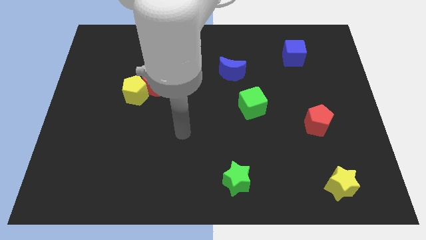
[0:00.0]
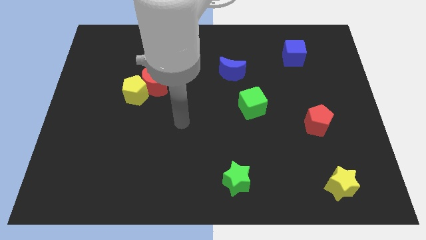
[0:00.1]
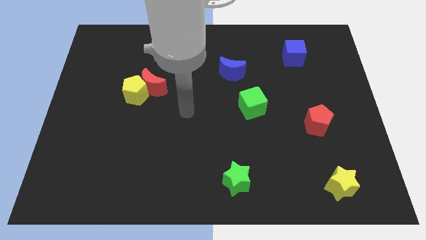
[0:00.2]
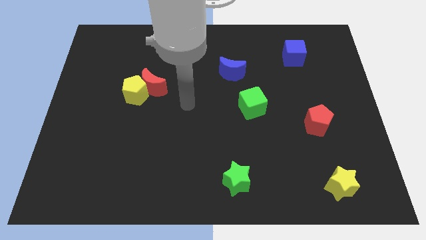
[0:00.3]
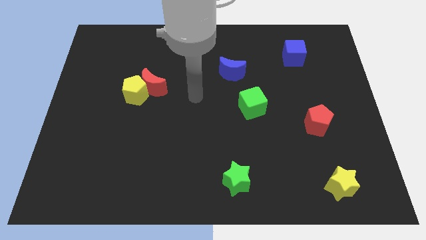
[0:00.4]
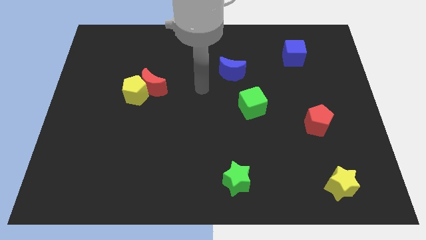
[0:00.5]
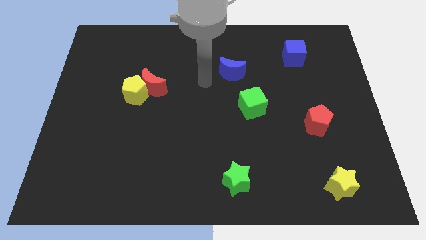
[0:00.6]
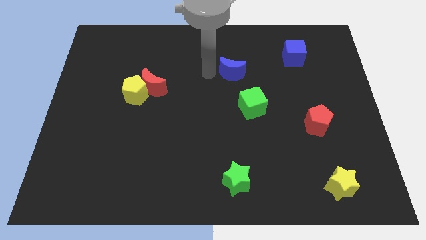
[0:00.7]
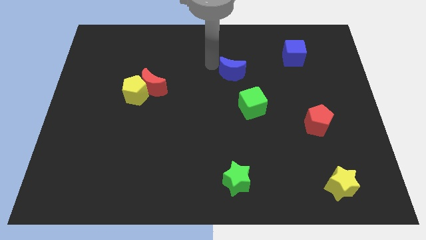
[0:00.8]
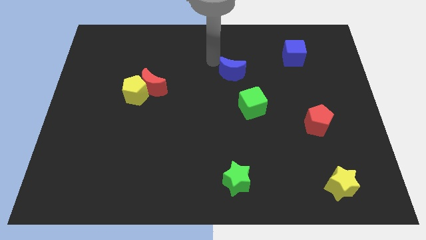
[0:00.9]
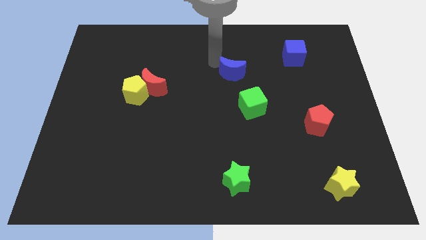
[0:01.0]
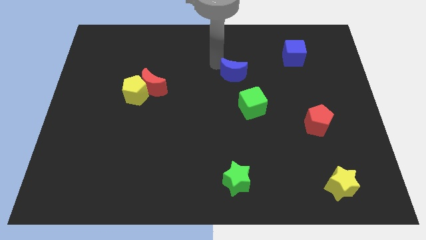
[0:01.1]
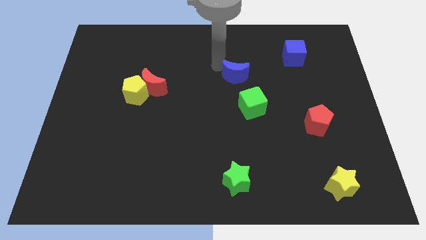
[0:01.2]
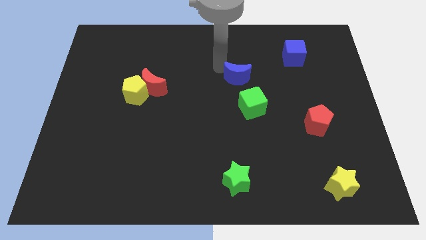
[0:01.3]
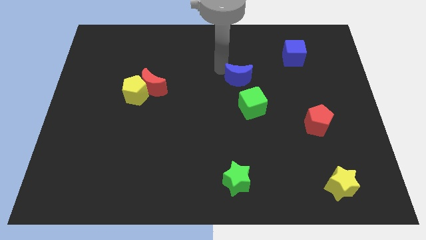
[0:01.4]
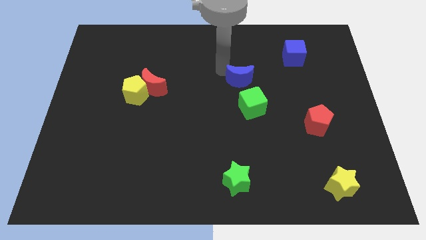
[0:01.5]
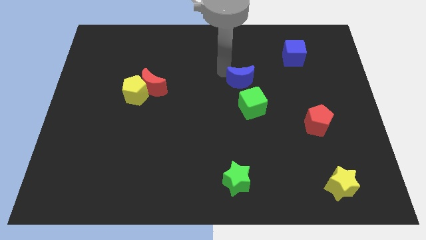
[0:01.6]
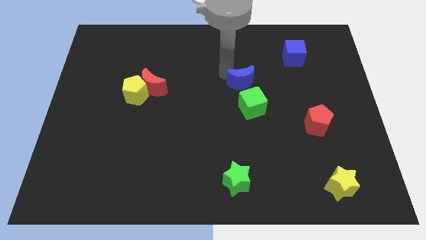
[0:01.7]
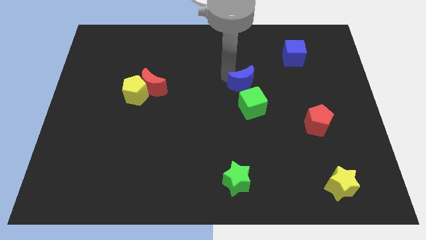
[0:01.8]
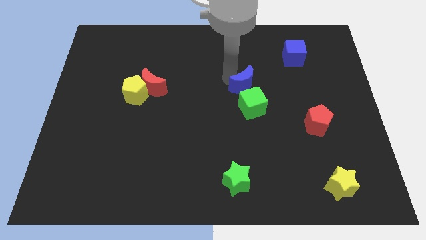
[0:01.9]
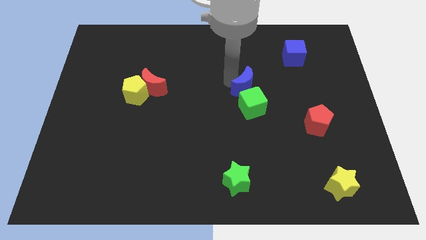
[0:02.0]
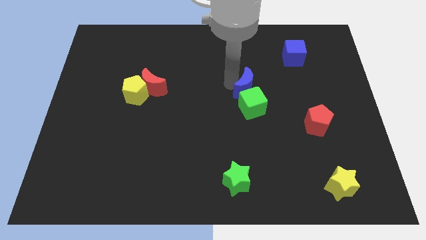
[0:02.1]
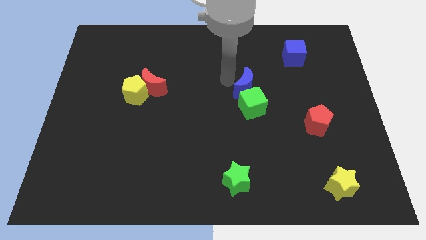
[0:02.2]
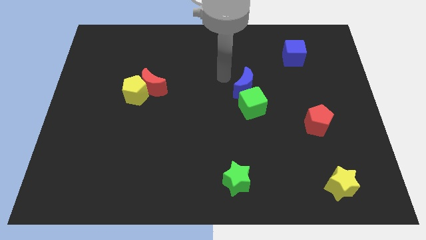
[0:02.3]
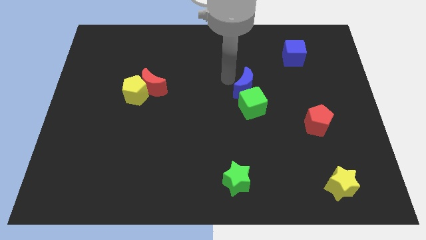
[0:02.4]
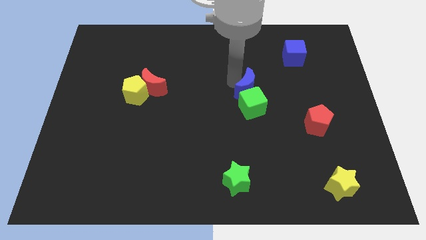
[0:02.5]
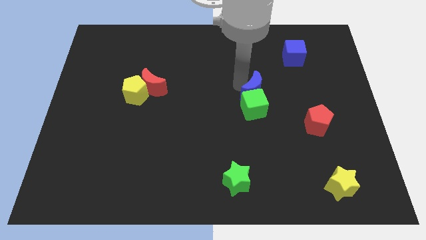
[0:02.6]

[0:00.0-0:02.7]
move the blue moon a bit down and to the right diagonally

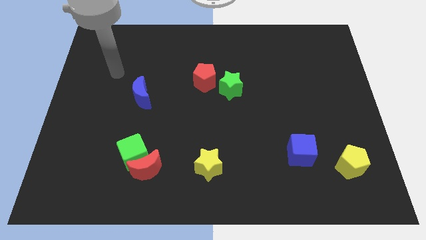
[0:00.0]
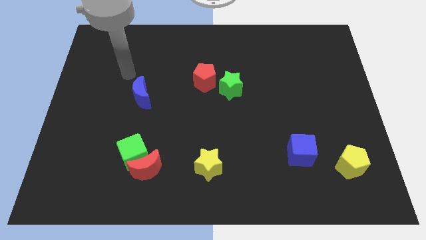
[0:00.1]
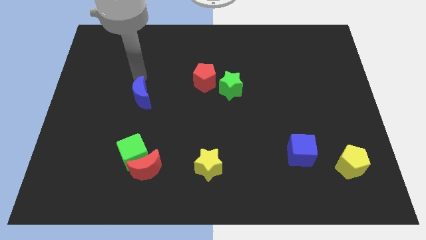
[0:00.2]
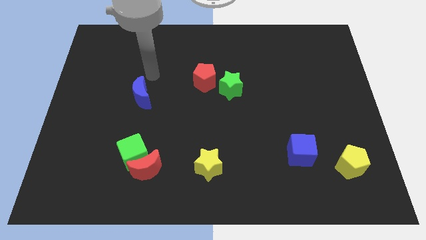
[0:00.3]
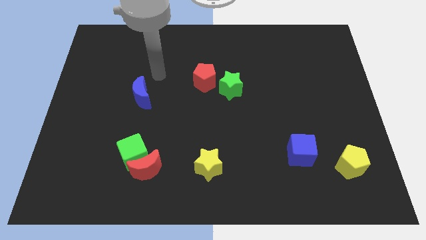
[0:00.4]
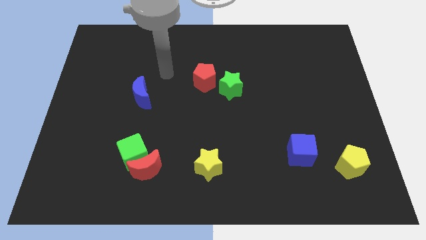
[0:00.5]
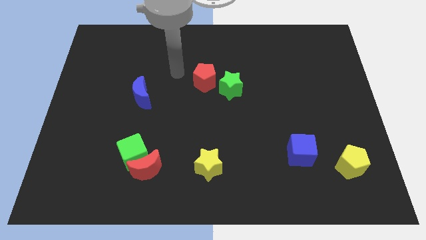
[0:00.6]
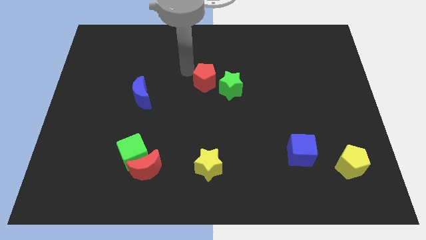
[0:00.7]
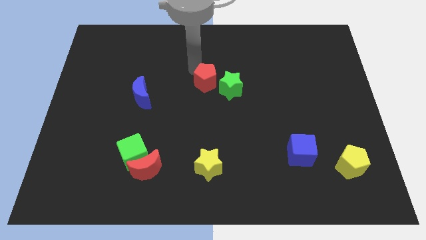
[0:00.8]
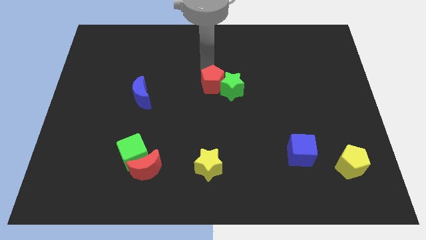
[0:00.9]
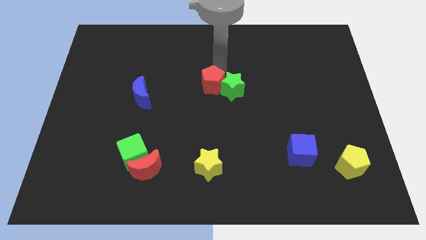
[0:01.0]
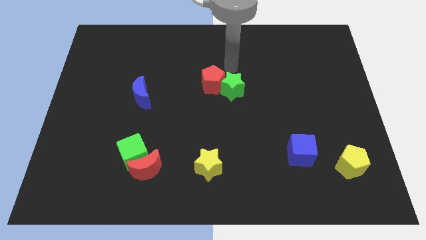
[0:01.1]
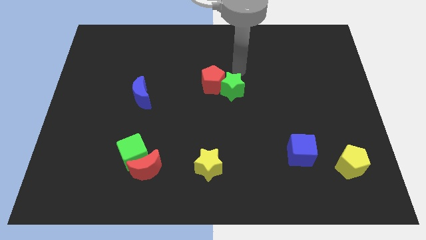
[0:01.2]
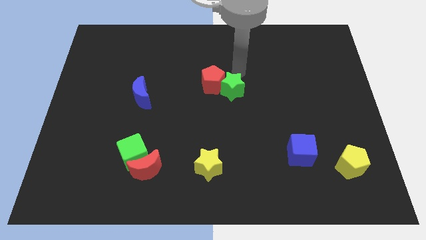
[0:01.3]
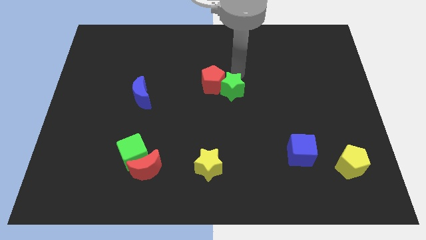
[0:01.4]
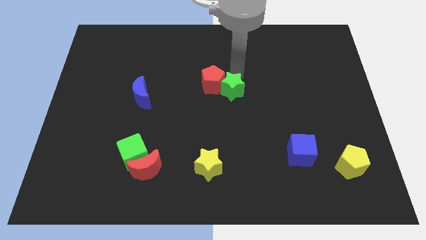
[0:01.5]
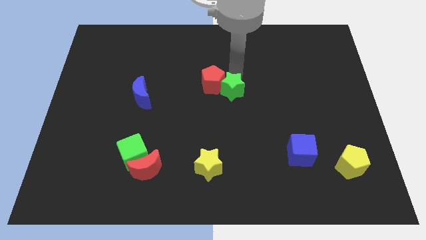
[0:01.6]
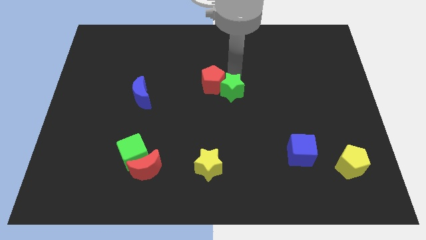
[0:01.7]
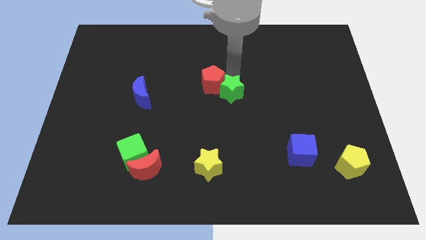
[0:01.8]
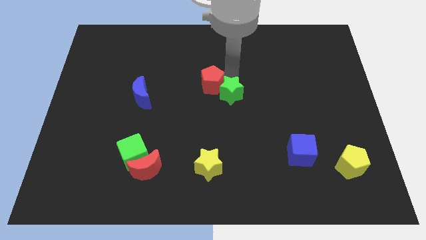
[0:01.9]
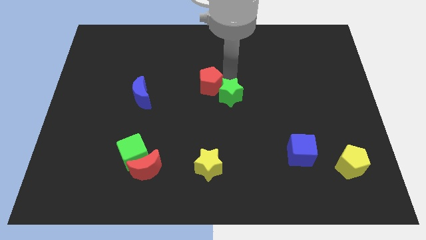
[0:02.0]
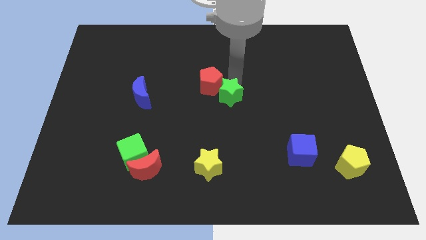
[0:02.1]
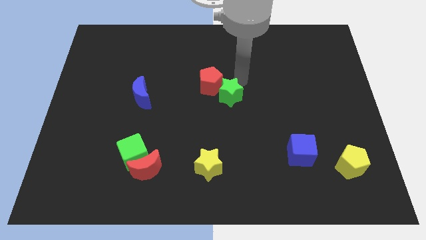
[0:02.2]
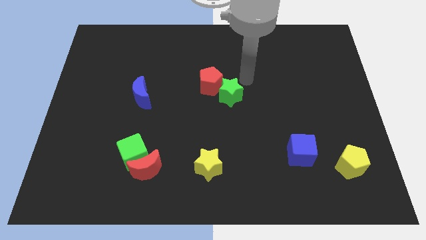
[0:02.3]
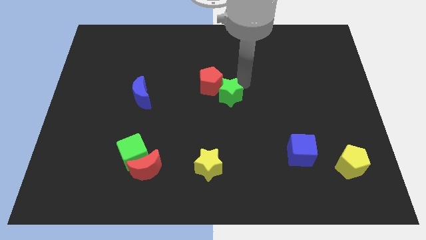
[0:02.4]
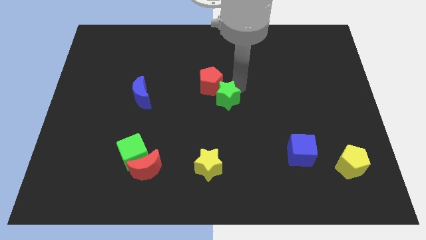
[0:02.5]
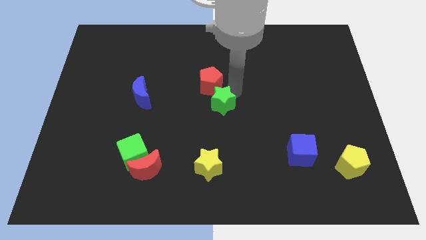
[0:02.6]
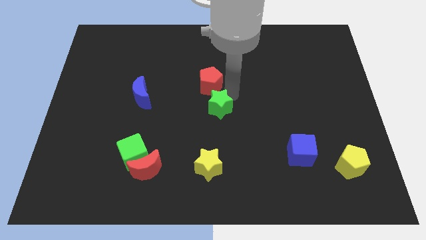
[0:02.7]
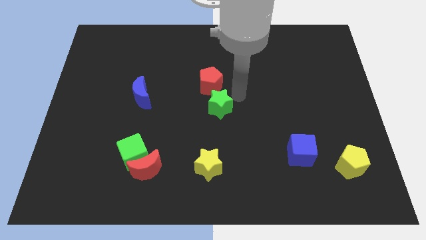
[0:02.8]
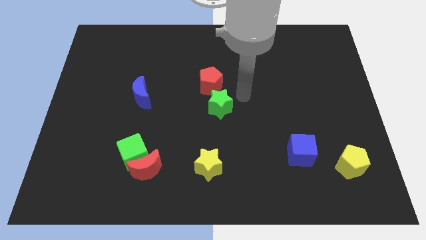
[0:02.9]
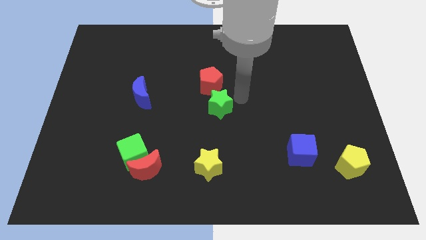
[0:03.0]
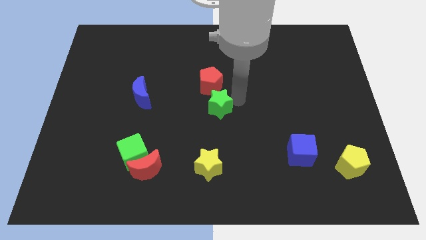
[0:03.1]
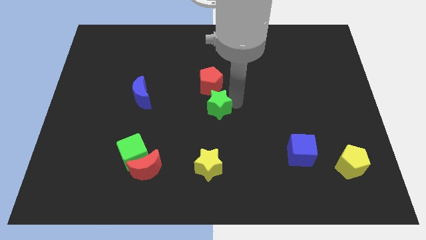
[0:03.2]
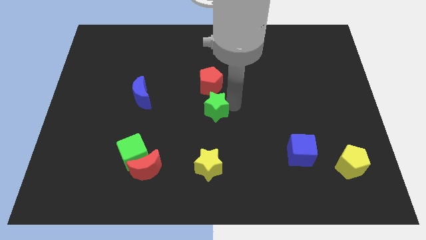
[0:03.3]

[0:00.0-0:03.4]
push the green star downwards and left diagonally a little bit

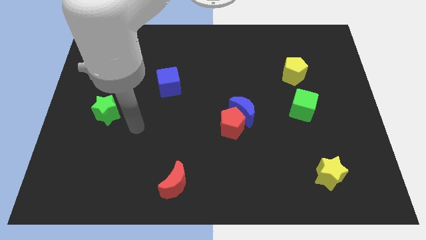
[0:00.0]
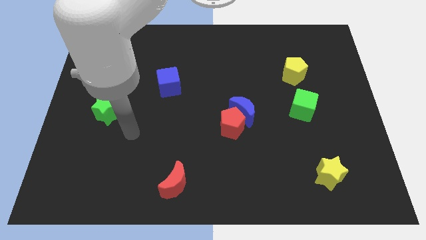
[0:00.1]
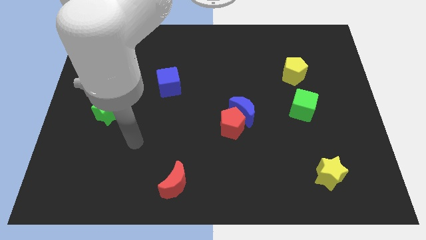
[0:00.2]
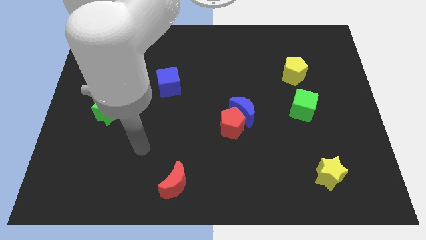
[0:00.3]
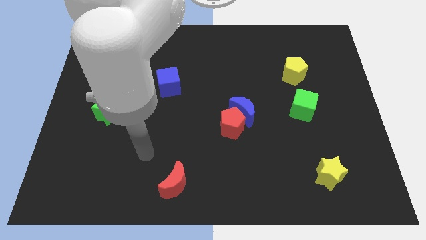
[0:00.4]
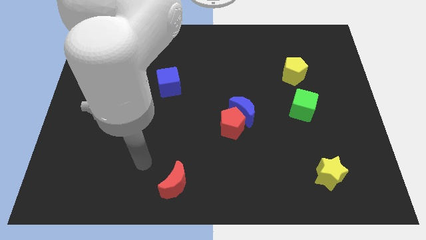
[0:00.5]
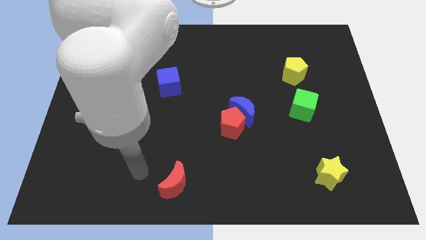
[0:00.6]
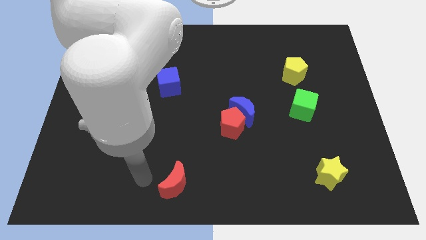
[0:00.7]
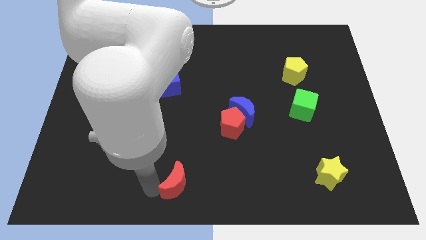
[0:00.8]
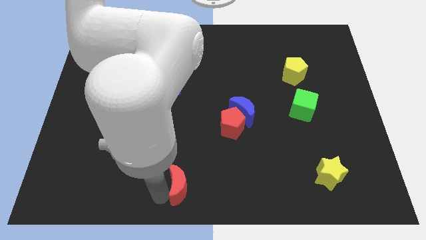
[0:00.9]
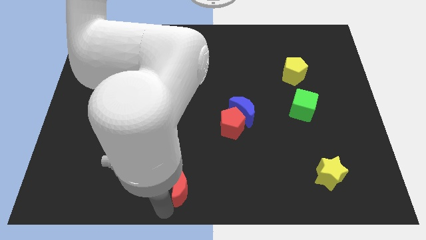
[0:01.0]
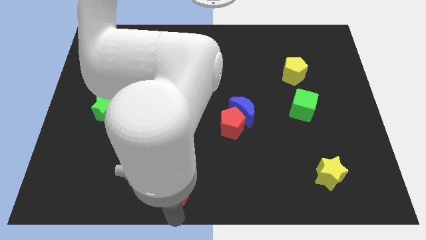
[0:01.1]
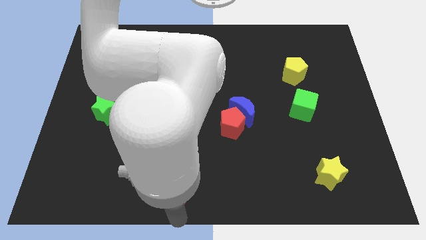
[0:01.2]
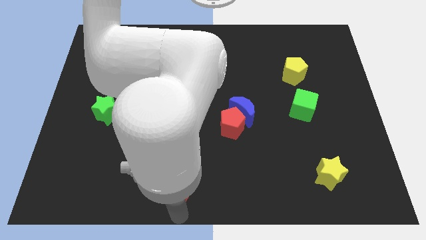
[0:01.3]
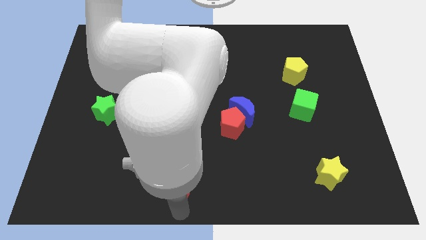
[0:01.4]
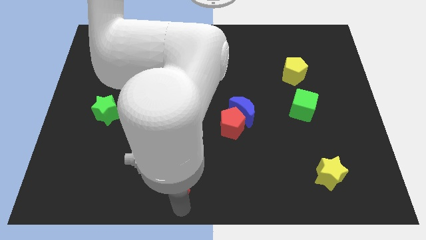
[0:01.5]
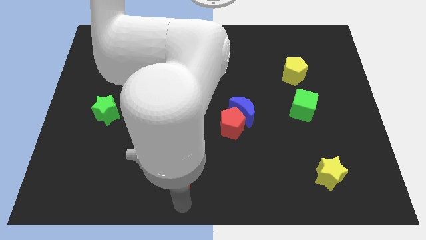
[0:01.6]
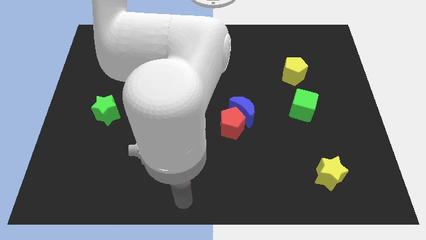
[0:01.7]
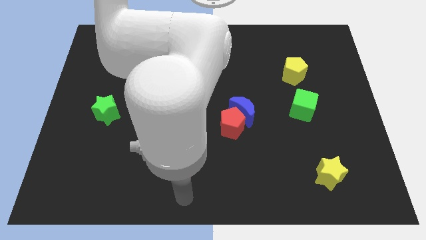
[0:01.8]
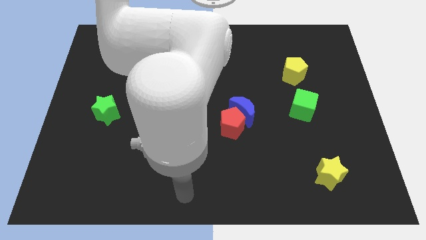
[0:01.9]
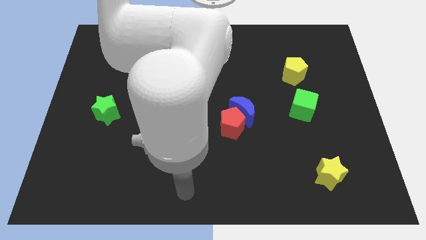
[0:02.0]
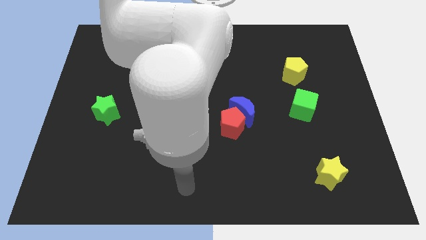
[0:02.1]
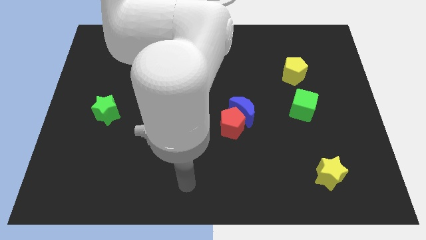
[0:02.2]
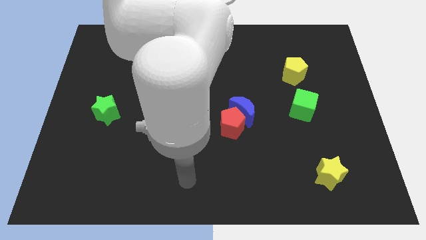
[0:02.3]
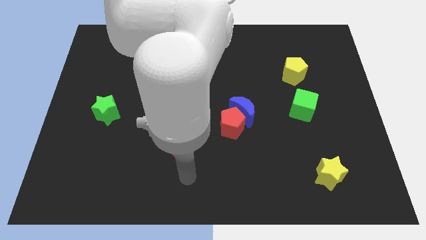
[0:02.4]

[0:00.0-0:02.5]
slightly push the red moon up
